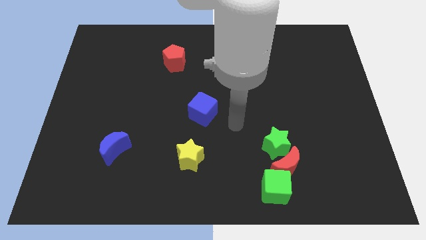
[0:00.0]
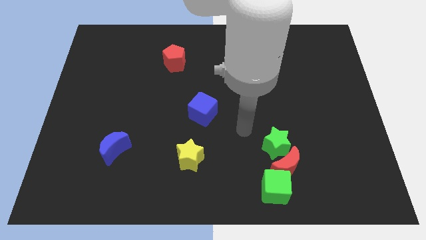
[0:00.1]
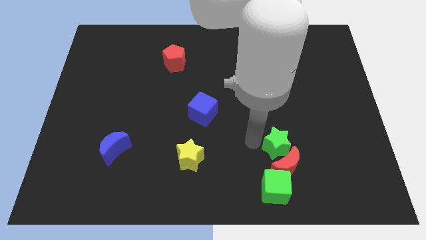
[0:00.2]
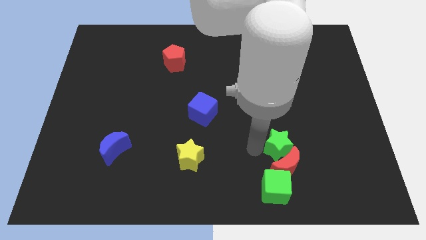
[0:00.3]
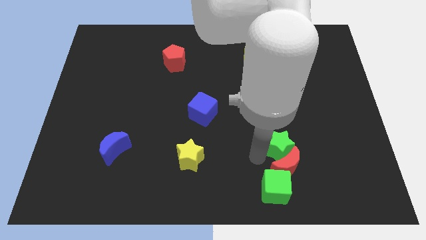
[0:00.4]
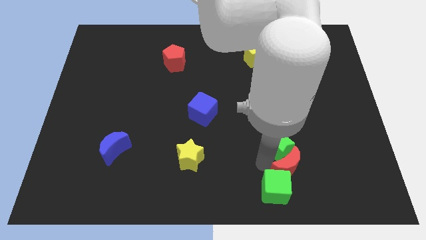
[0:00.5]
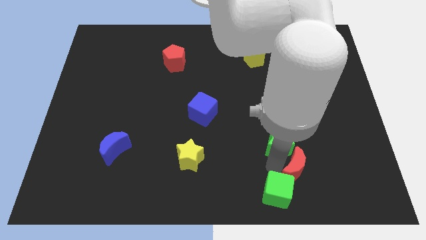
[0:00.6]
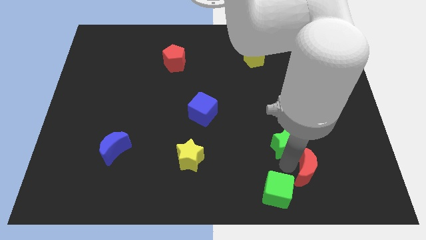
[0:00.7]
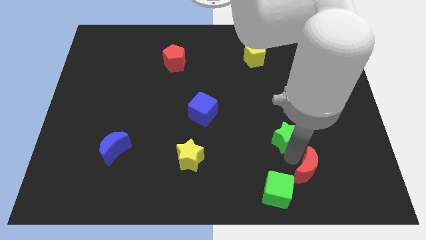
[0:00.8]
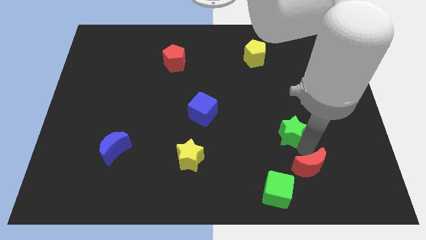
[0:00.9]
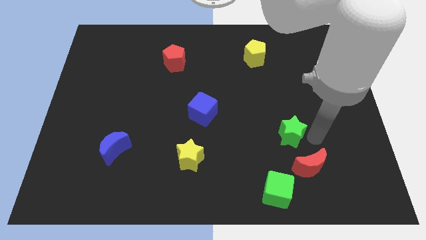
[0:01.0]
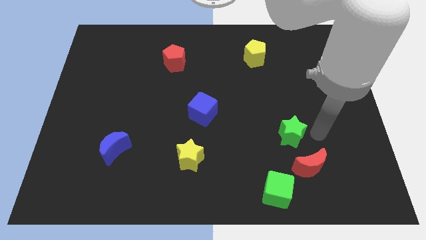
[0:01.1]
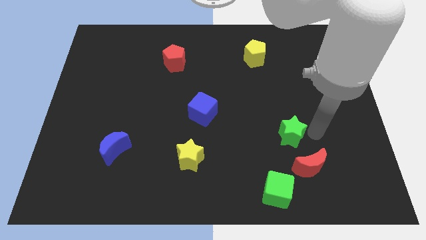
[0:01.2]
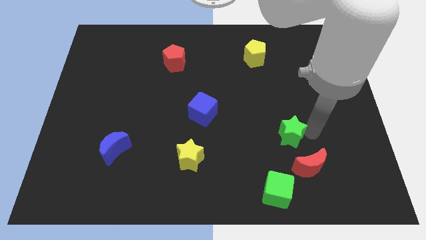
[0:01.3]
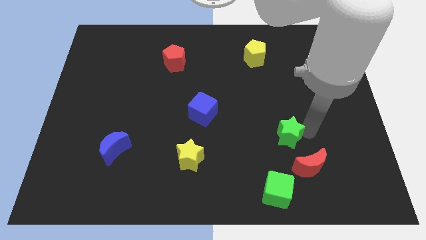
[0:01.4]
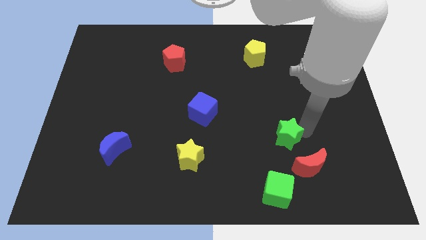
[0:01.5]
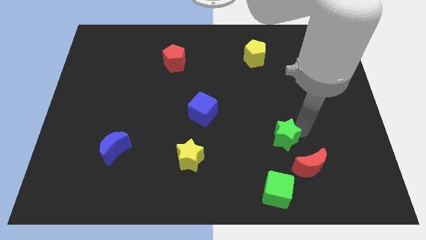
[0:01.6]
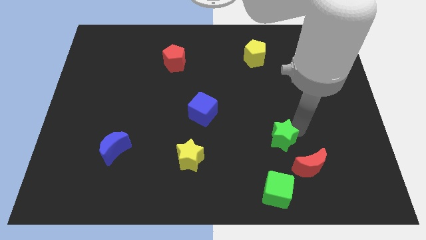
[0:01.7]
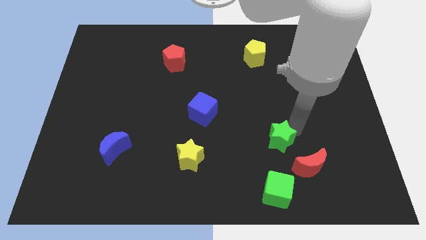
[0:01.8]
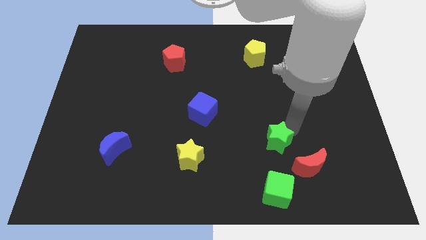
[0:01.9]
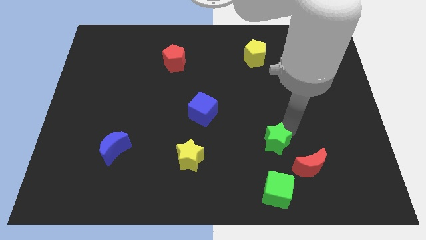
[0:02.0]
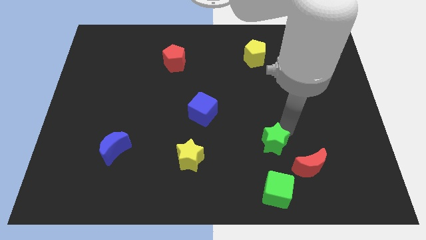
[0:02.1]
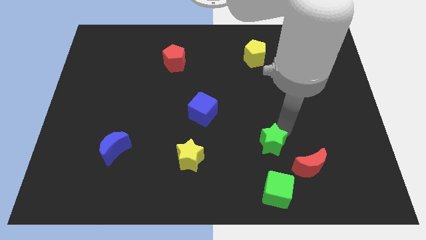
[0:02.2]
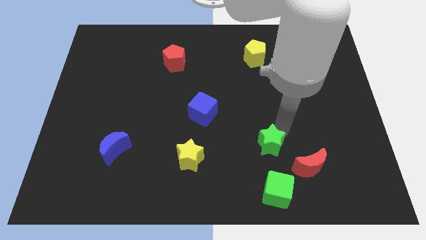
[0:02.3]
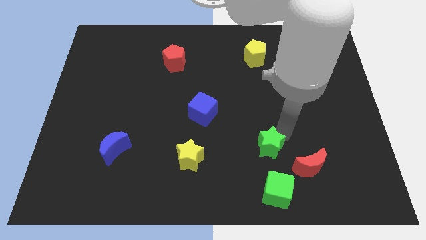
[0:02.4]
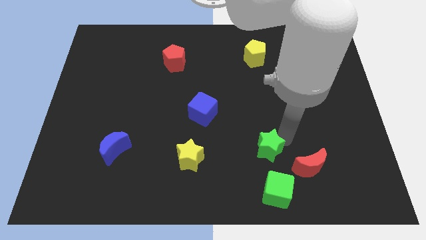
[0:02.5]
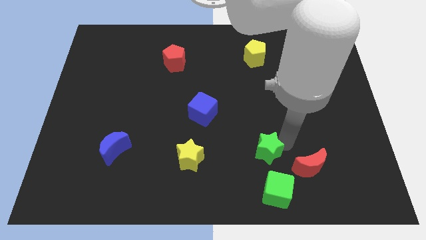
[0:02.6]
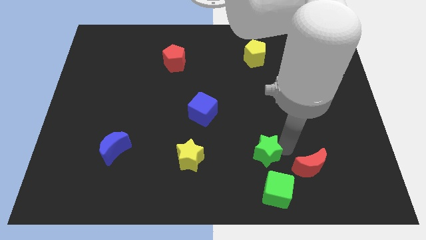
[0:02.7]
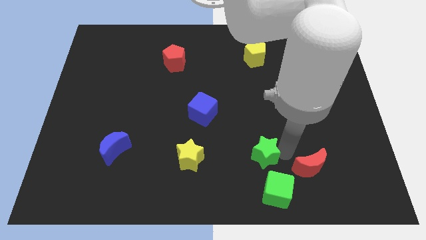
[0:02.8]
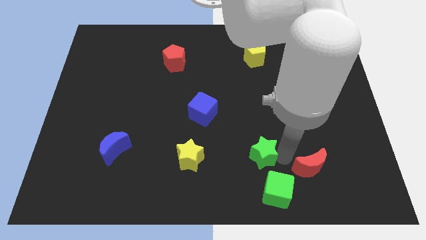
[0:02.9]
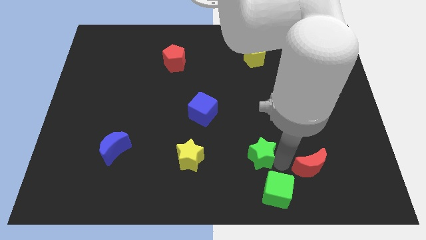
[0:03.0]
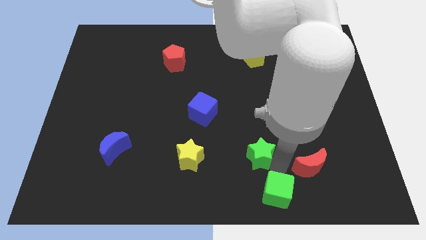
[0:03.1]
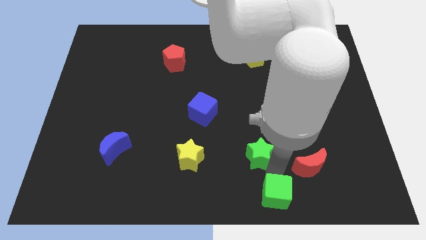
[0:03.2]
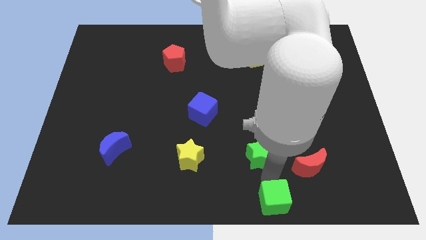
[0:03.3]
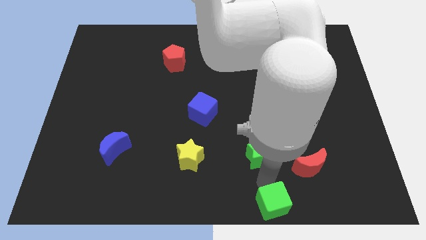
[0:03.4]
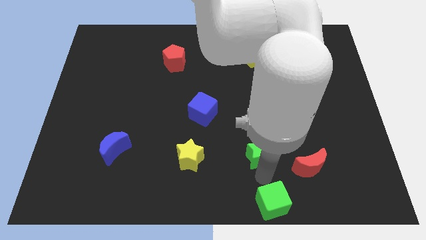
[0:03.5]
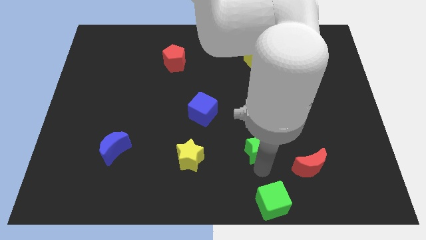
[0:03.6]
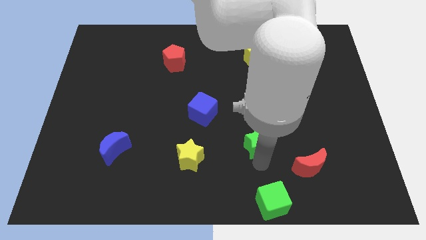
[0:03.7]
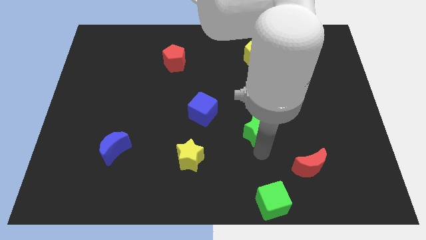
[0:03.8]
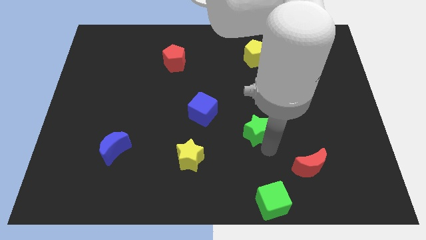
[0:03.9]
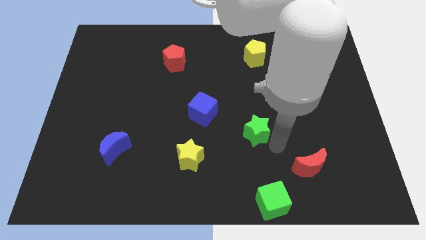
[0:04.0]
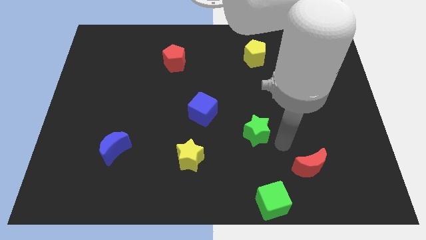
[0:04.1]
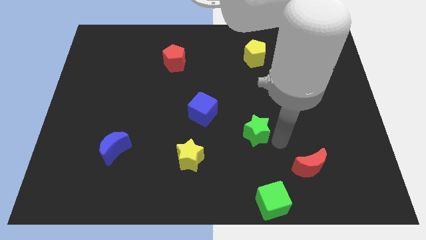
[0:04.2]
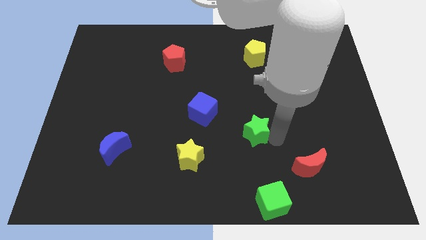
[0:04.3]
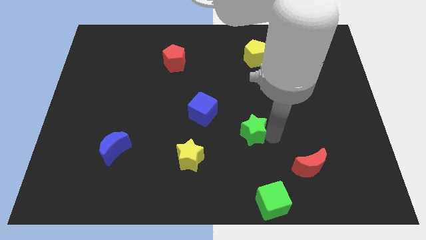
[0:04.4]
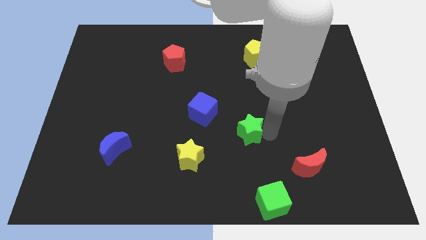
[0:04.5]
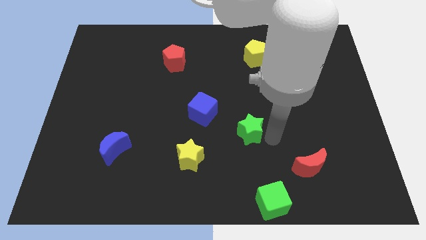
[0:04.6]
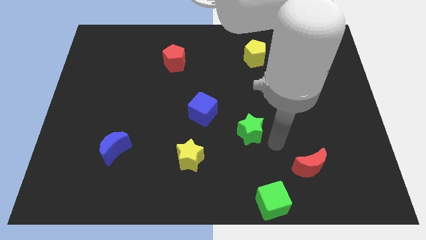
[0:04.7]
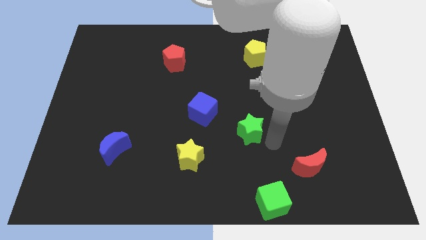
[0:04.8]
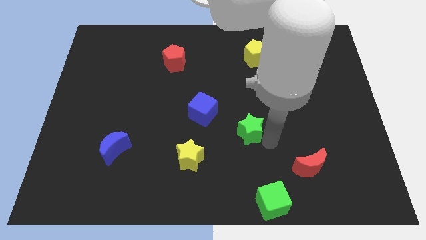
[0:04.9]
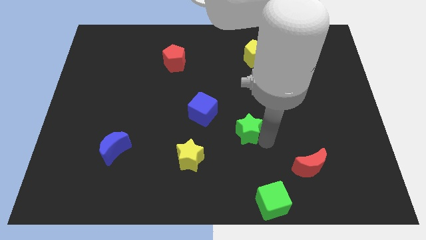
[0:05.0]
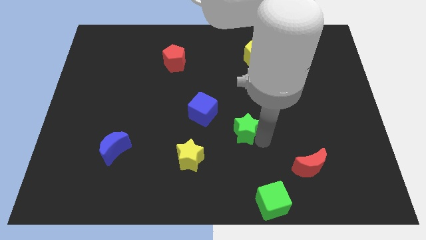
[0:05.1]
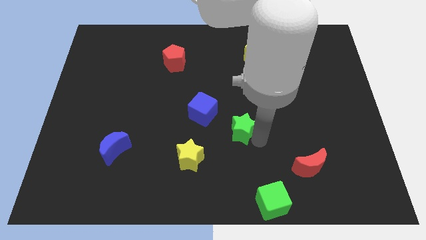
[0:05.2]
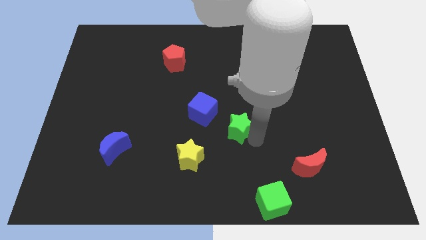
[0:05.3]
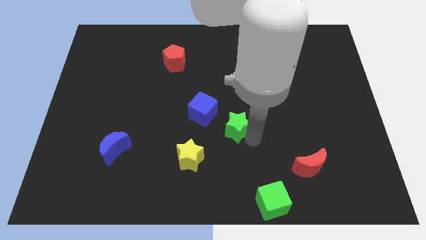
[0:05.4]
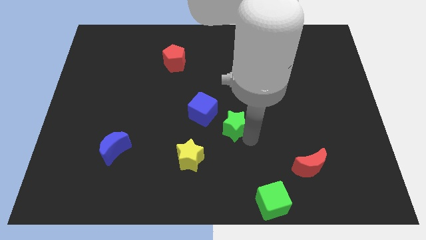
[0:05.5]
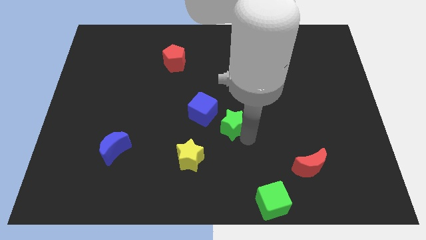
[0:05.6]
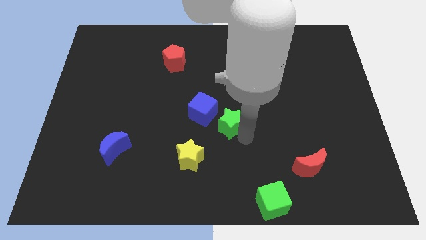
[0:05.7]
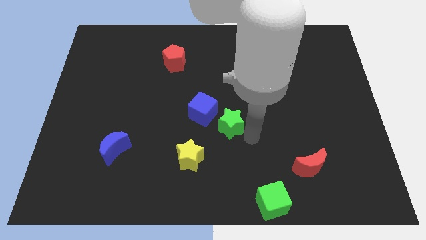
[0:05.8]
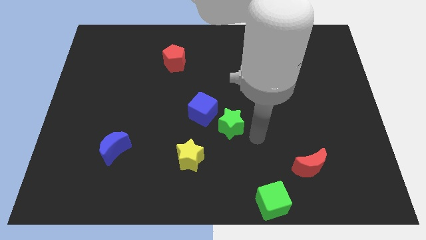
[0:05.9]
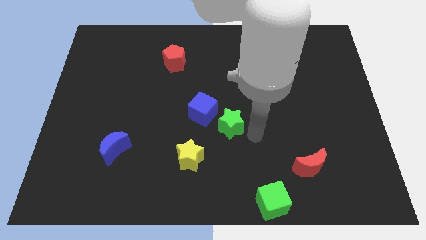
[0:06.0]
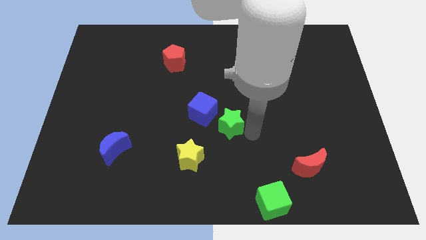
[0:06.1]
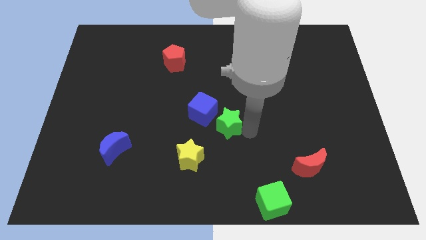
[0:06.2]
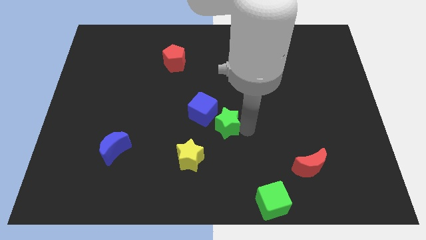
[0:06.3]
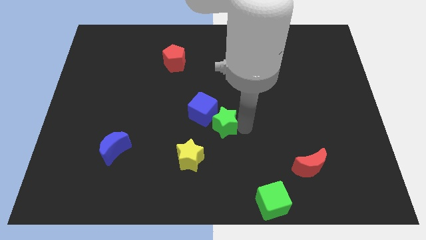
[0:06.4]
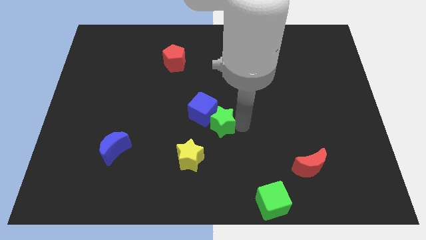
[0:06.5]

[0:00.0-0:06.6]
move the green star to the blue cube
